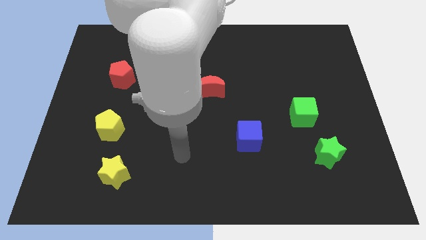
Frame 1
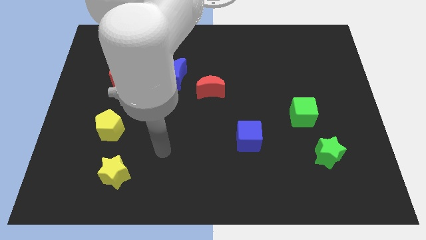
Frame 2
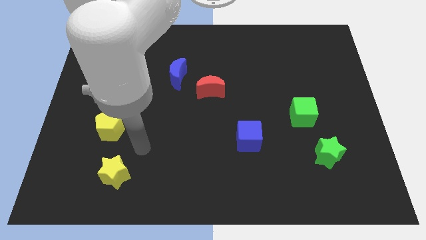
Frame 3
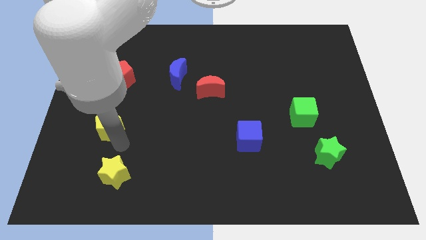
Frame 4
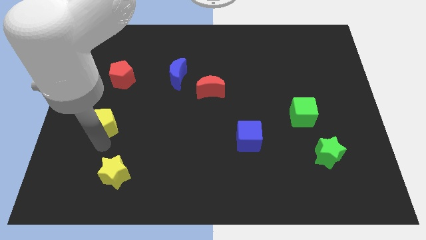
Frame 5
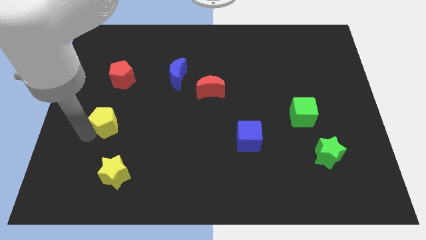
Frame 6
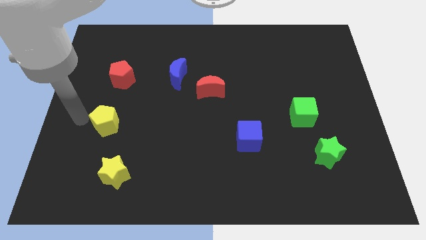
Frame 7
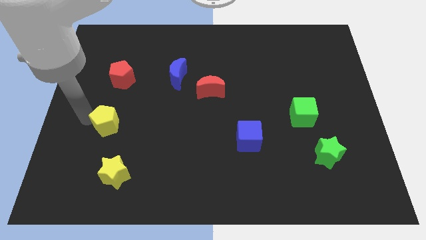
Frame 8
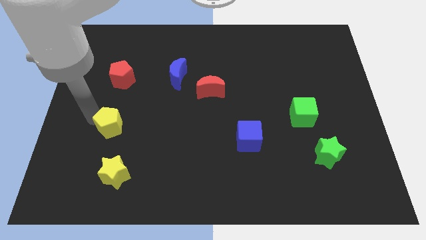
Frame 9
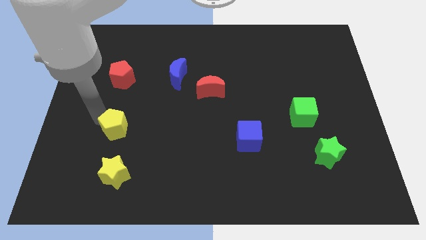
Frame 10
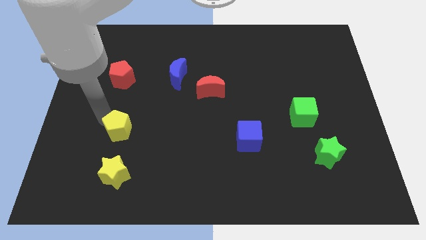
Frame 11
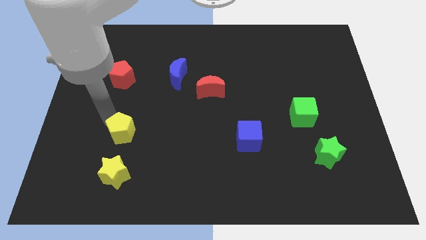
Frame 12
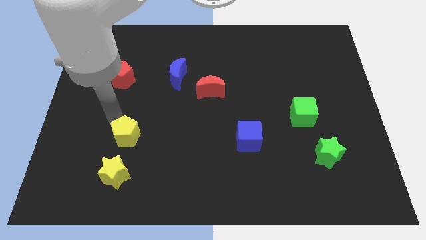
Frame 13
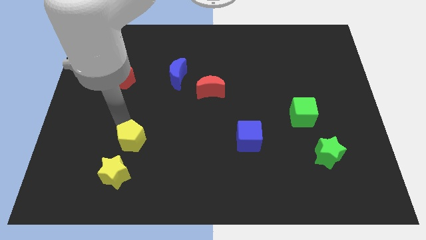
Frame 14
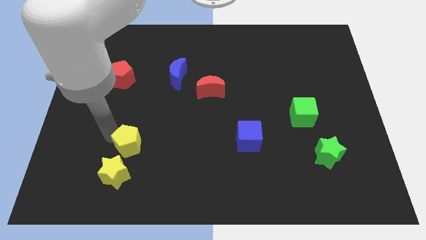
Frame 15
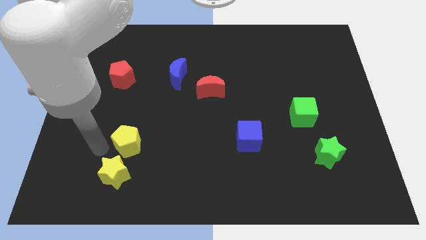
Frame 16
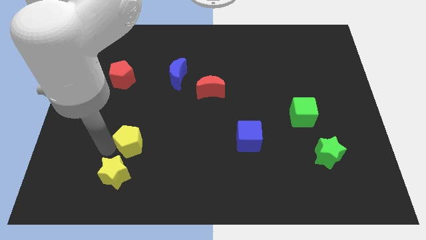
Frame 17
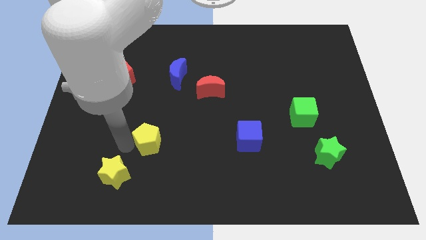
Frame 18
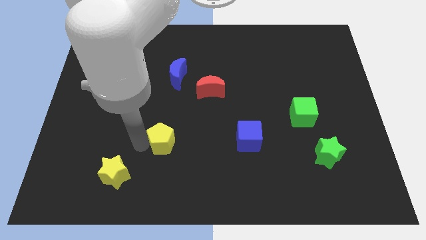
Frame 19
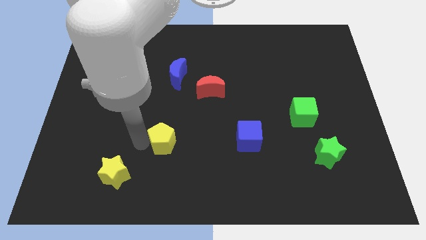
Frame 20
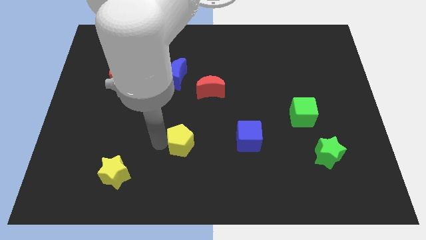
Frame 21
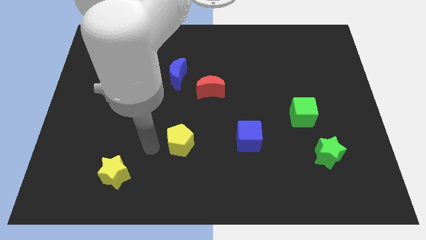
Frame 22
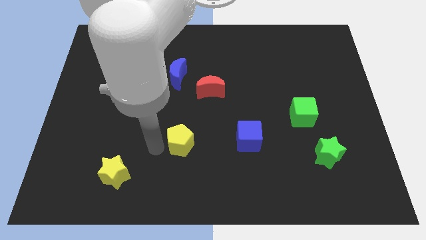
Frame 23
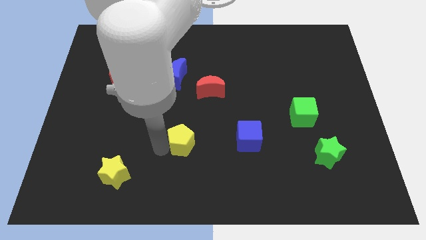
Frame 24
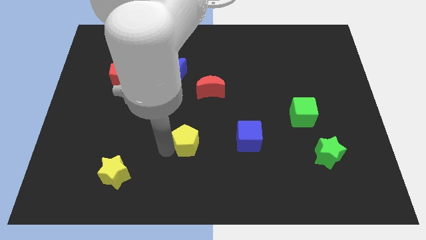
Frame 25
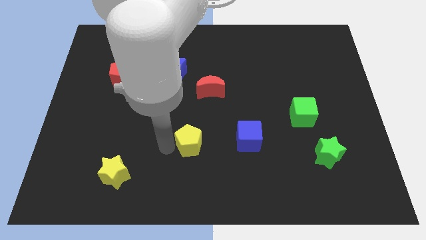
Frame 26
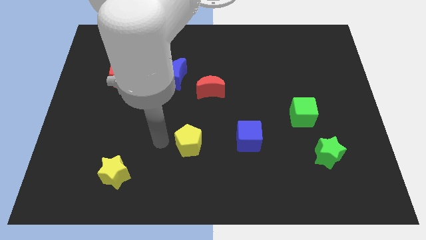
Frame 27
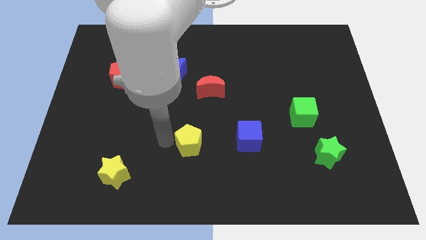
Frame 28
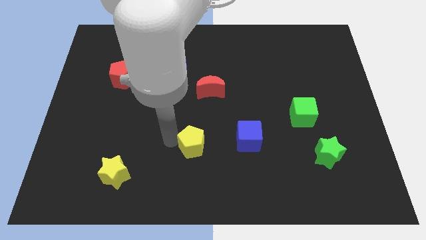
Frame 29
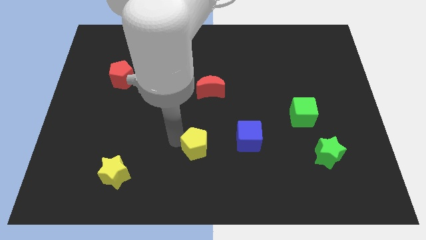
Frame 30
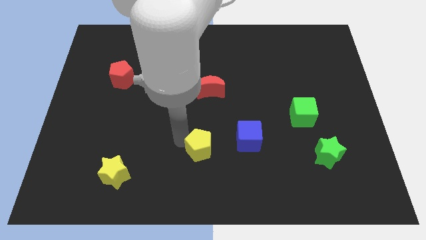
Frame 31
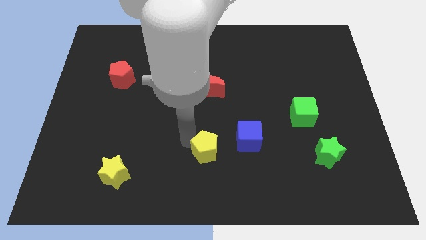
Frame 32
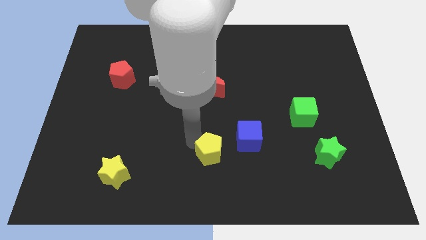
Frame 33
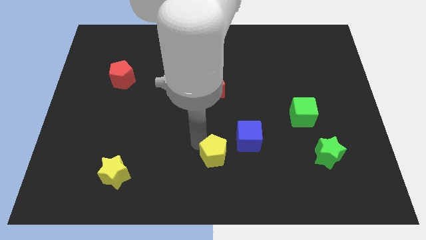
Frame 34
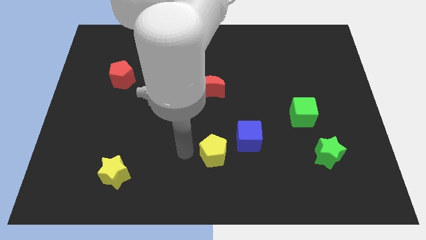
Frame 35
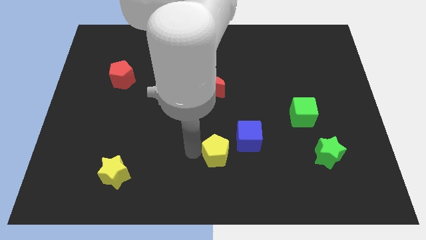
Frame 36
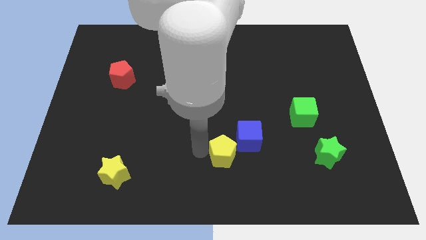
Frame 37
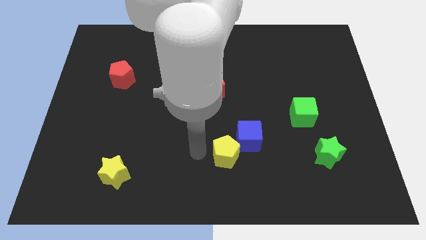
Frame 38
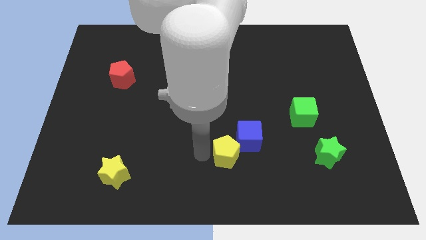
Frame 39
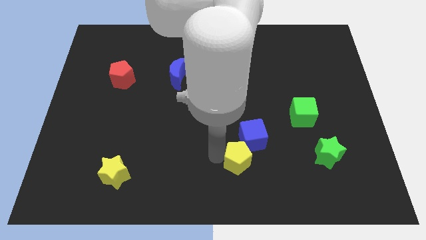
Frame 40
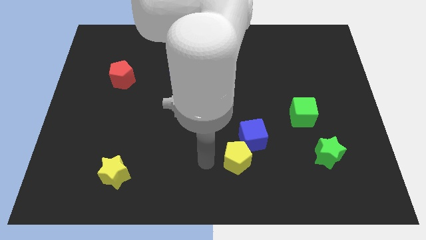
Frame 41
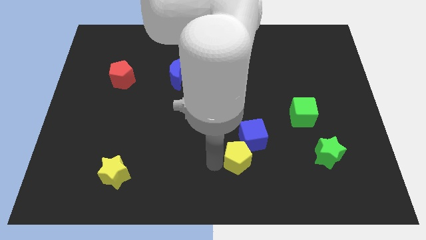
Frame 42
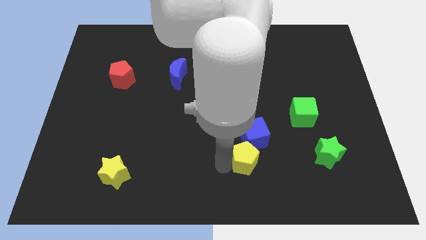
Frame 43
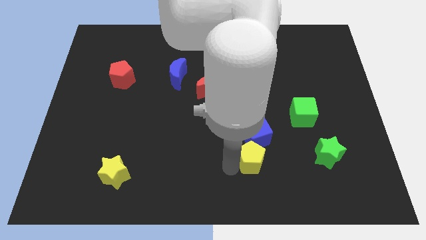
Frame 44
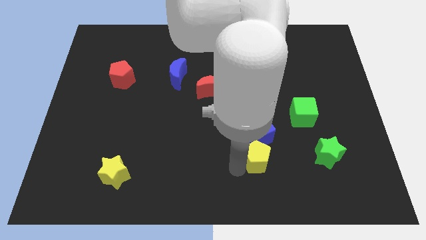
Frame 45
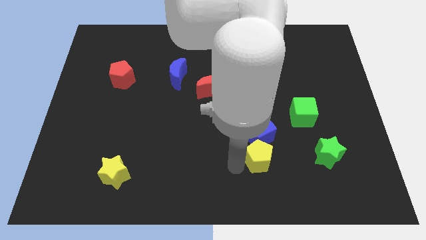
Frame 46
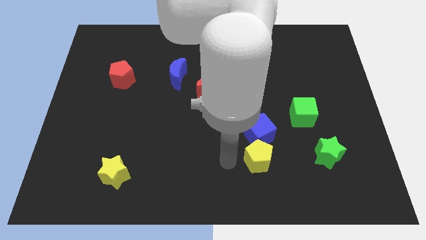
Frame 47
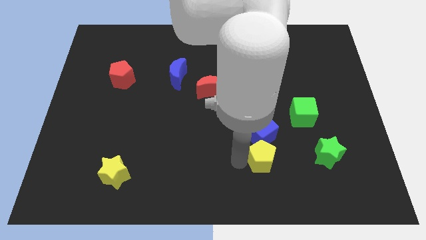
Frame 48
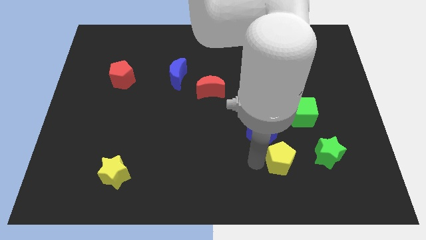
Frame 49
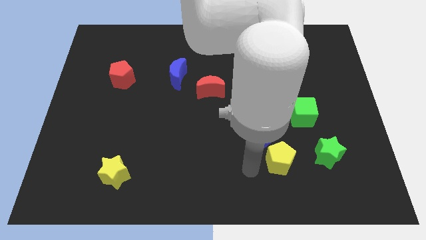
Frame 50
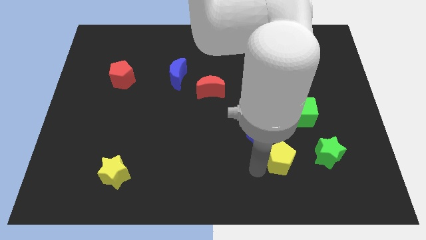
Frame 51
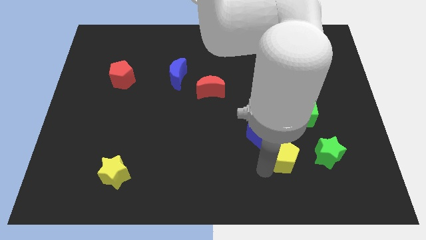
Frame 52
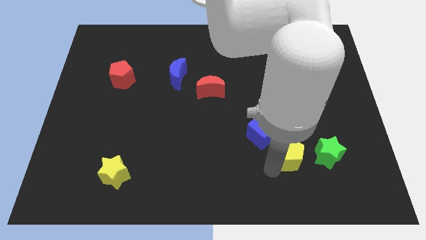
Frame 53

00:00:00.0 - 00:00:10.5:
move the yellow pentagon to the bottom side of the green cube

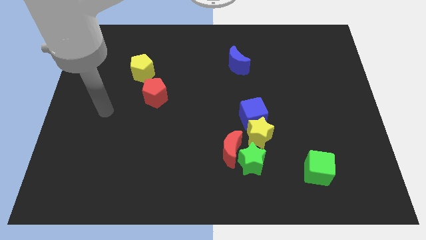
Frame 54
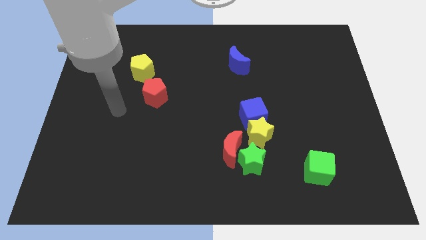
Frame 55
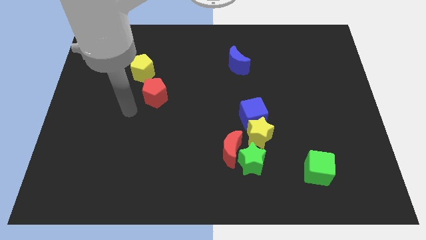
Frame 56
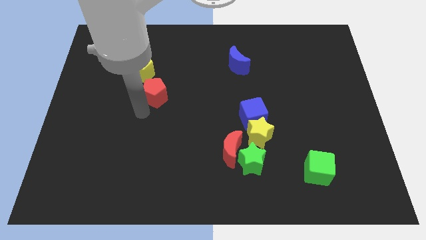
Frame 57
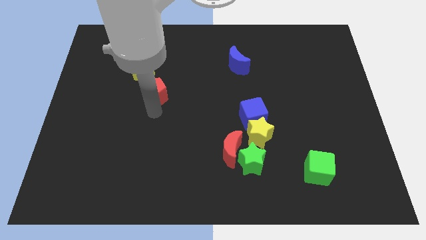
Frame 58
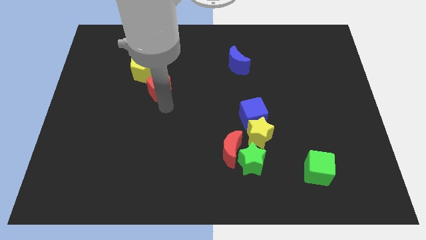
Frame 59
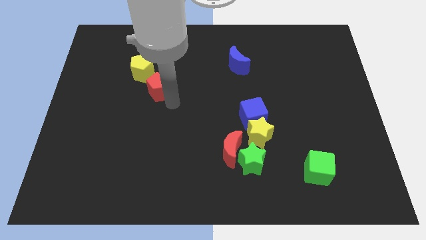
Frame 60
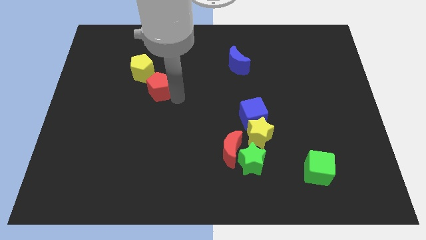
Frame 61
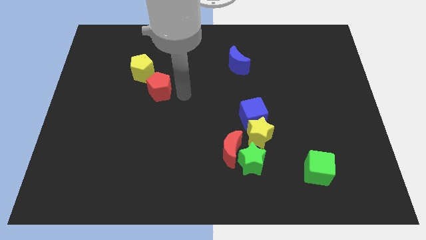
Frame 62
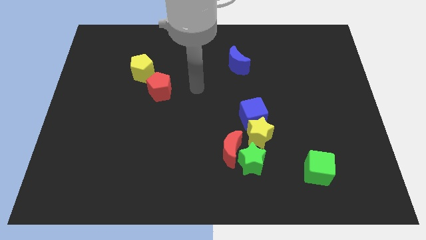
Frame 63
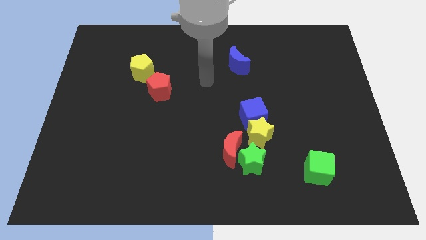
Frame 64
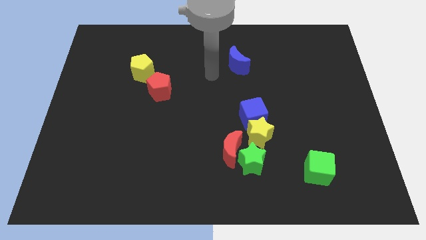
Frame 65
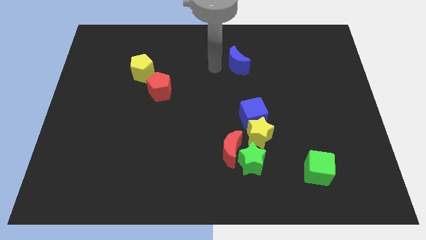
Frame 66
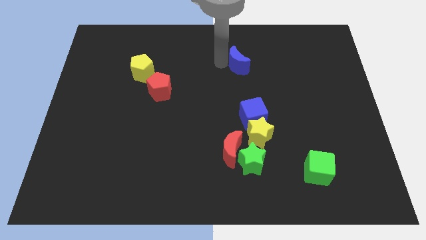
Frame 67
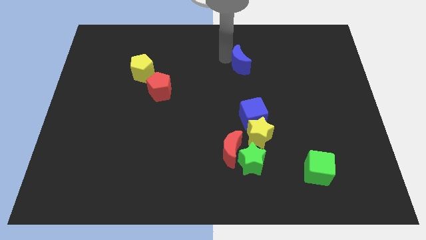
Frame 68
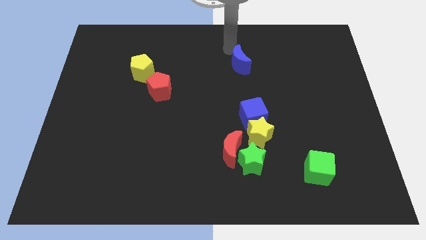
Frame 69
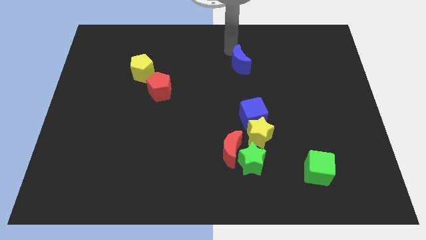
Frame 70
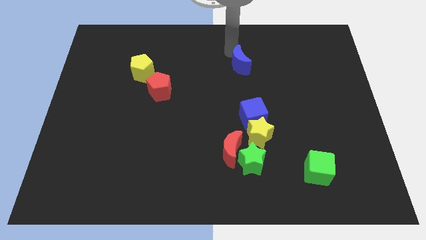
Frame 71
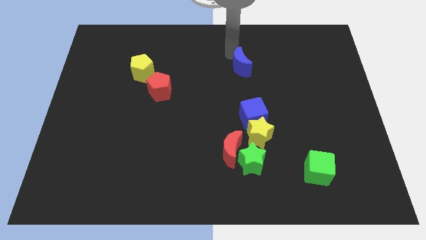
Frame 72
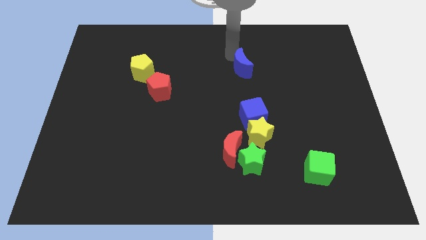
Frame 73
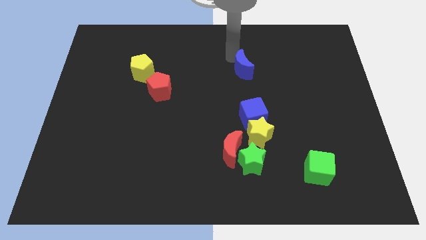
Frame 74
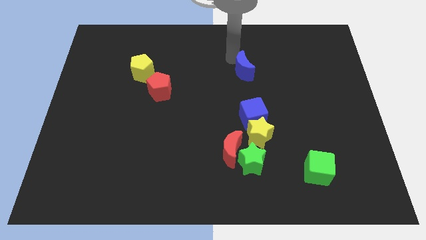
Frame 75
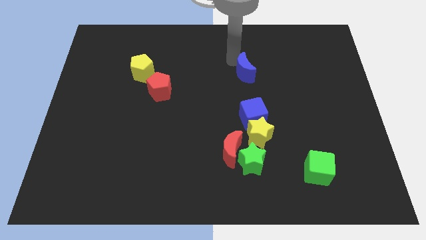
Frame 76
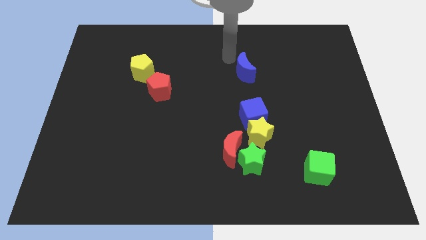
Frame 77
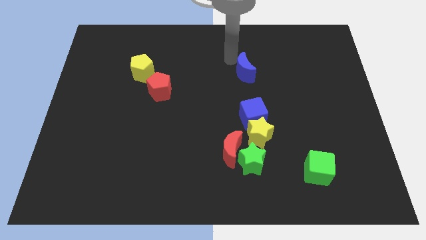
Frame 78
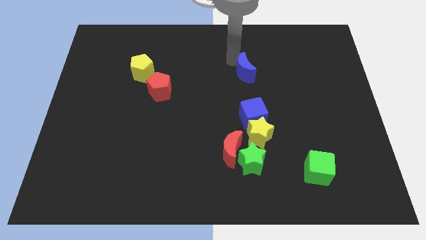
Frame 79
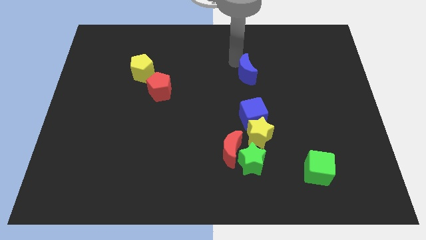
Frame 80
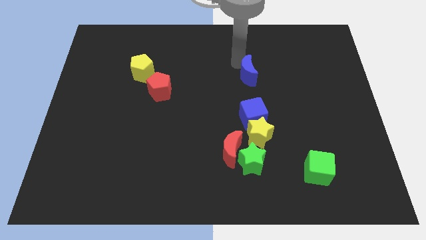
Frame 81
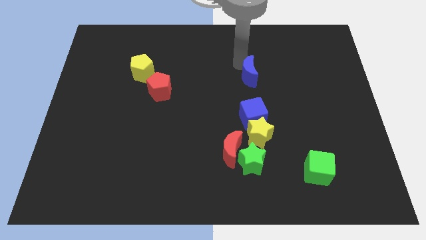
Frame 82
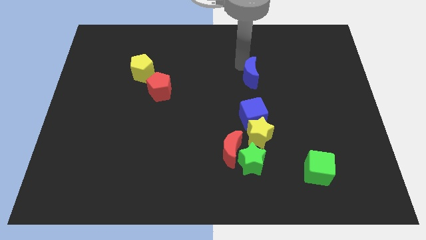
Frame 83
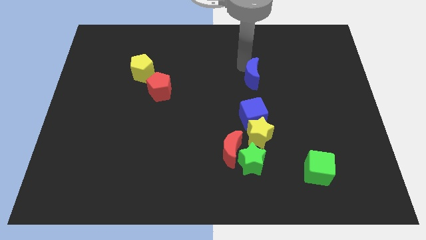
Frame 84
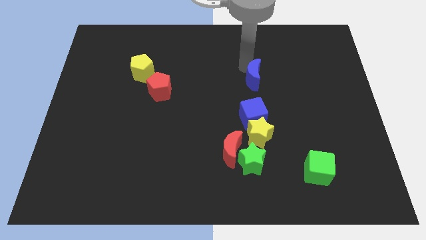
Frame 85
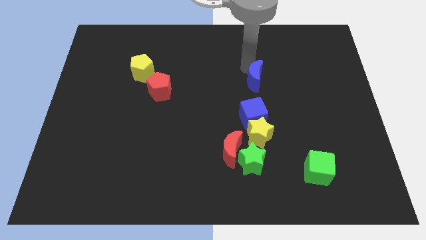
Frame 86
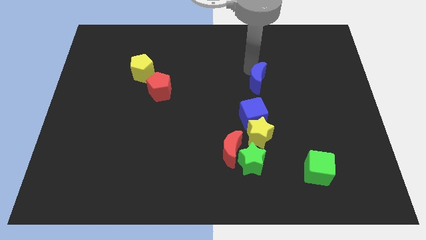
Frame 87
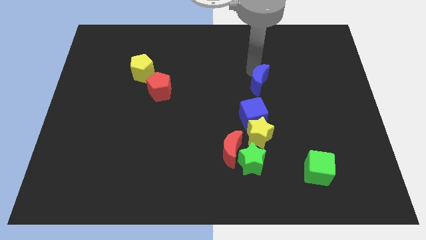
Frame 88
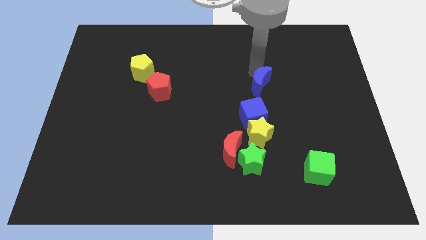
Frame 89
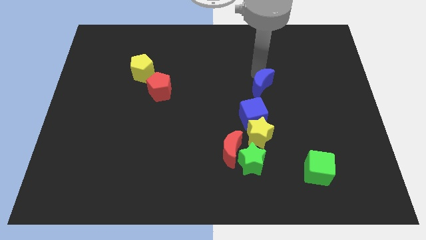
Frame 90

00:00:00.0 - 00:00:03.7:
move the blue moon to the top right of the blue cube
